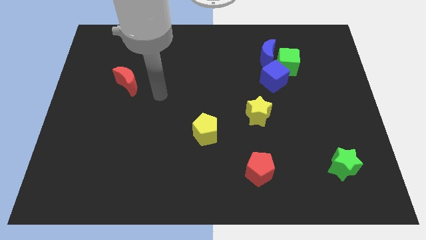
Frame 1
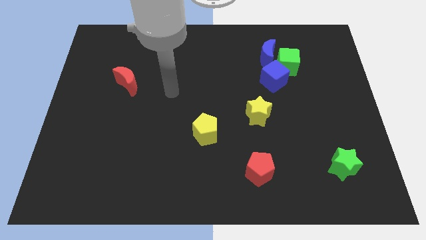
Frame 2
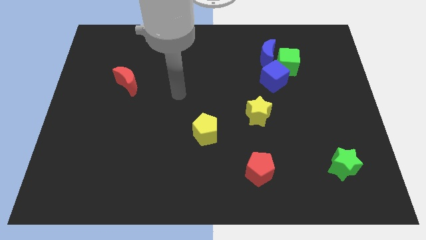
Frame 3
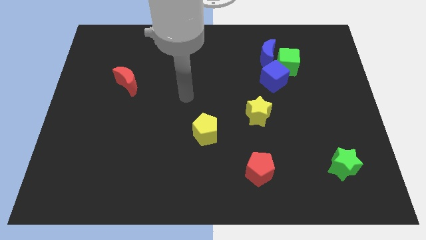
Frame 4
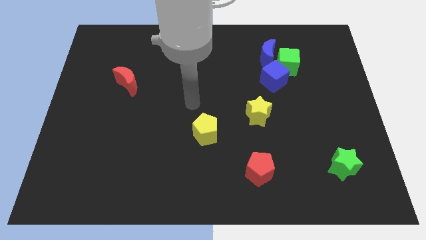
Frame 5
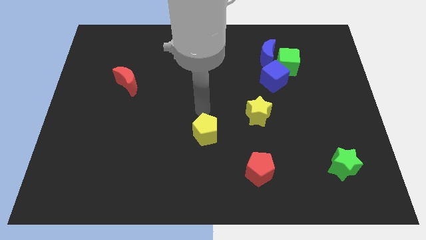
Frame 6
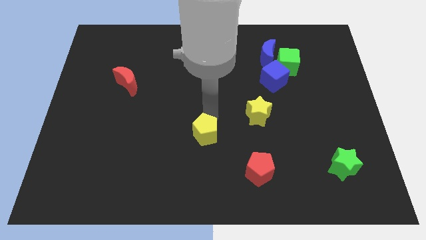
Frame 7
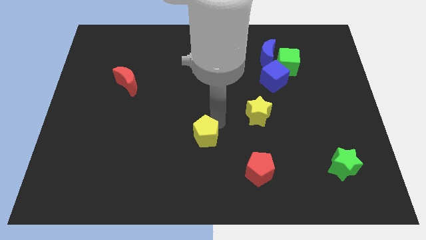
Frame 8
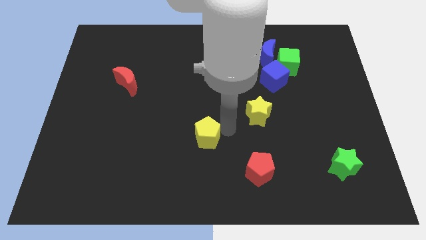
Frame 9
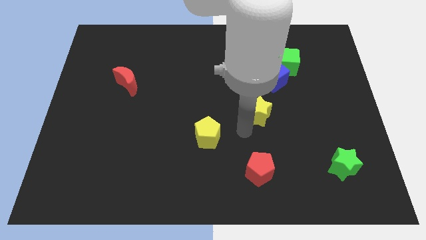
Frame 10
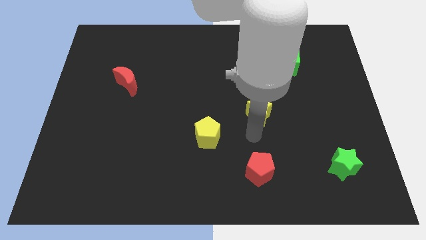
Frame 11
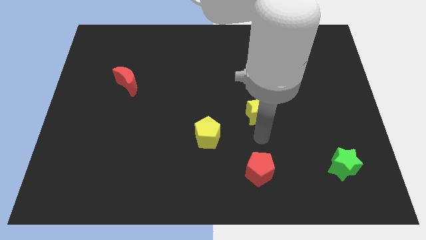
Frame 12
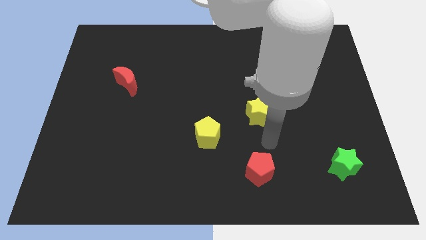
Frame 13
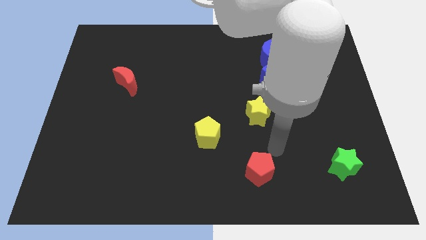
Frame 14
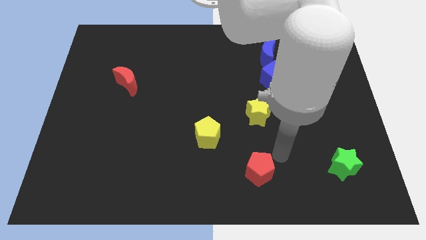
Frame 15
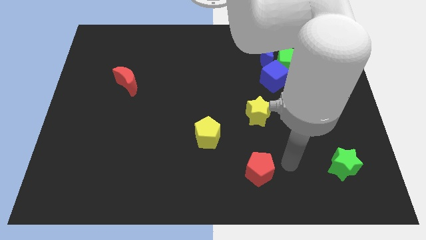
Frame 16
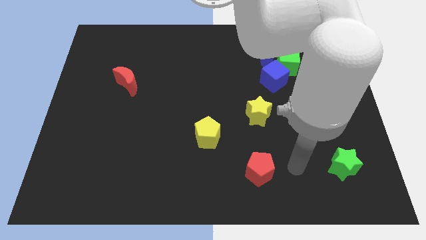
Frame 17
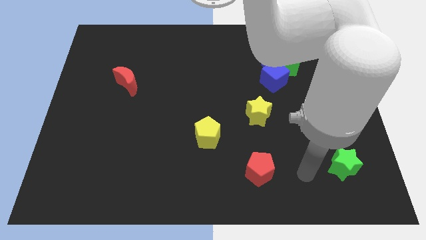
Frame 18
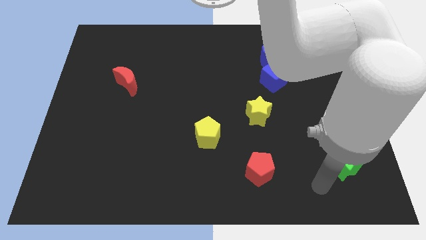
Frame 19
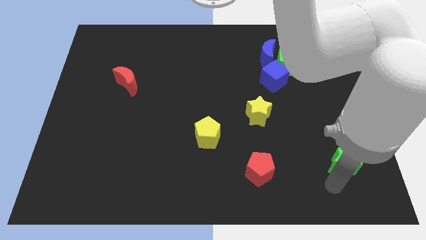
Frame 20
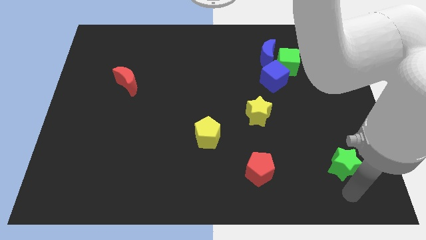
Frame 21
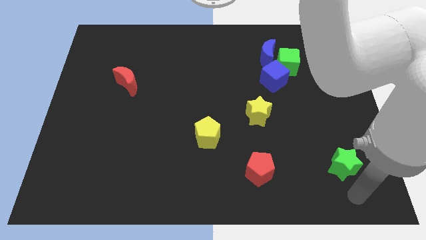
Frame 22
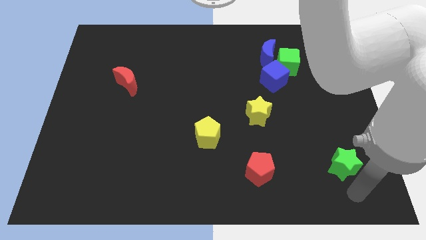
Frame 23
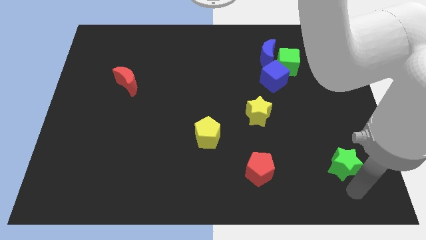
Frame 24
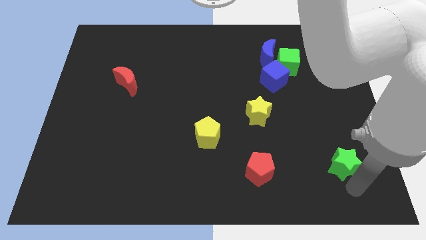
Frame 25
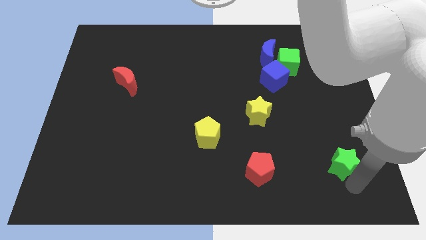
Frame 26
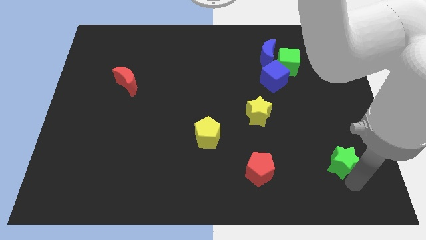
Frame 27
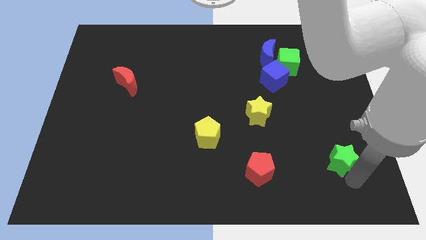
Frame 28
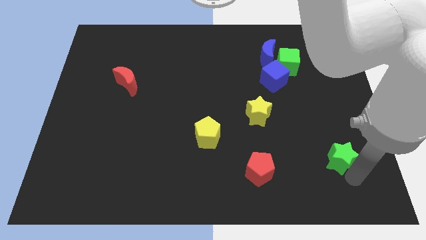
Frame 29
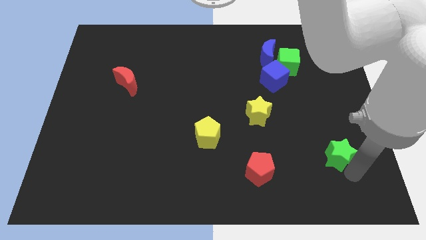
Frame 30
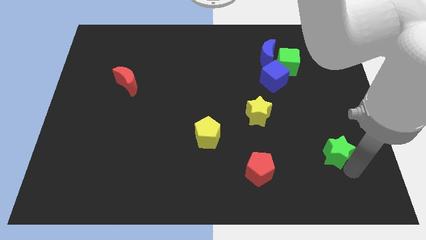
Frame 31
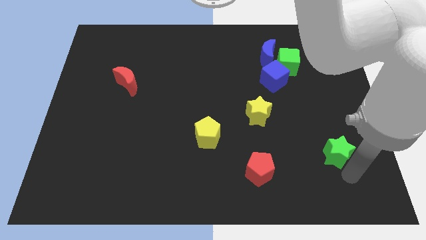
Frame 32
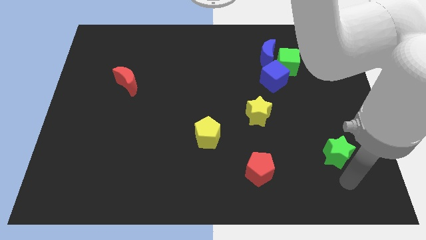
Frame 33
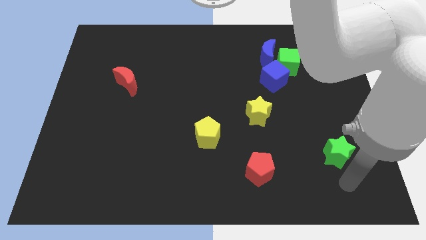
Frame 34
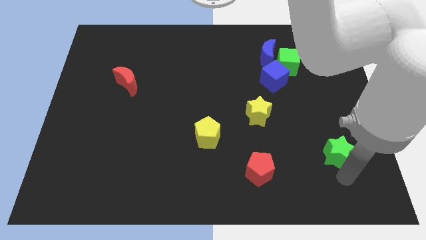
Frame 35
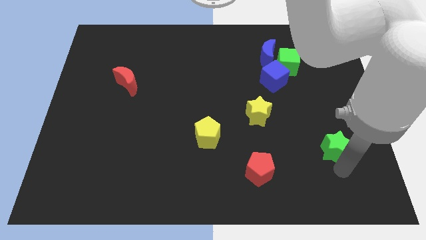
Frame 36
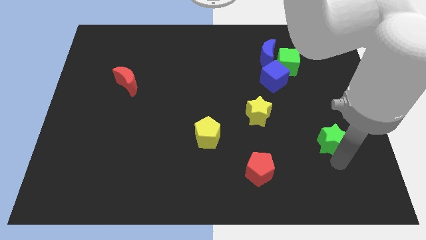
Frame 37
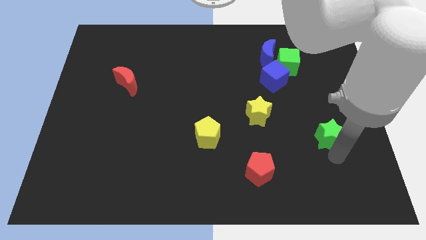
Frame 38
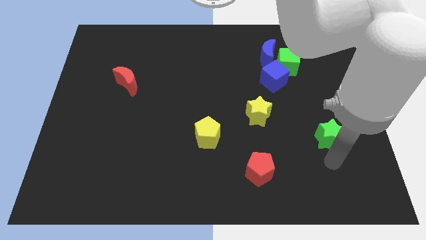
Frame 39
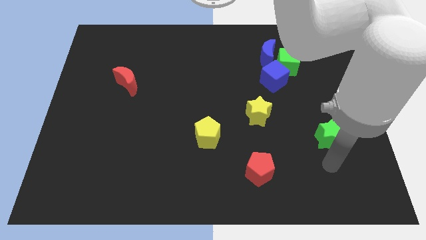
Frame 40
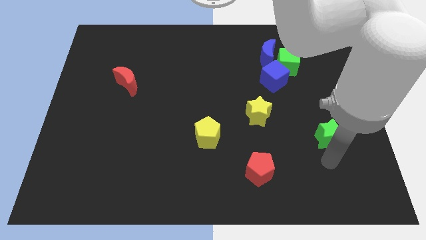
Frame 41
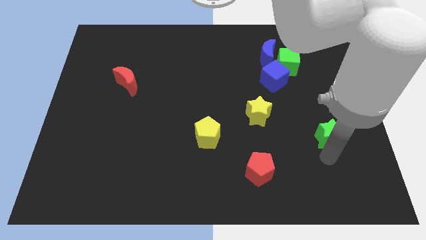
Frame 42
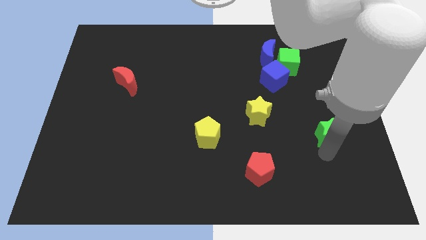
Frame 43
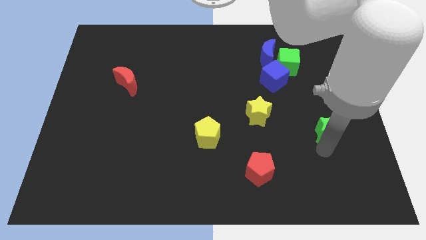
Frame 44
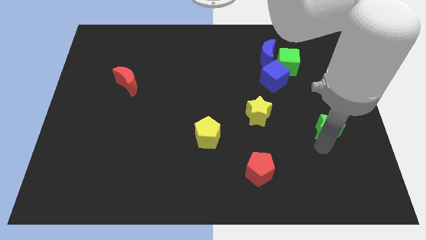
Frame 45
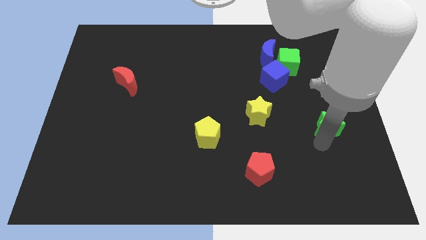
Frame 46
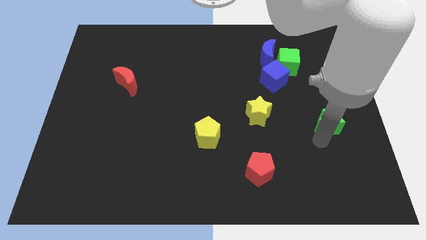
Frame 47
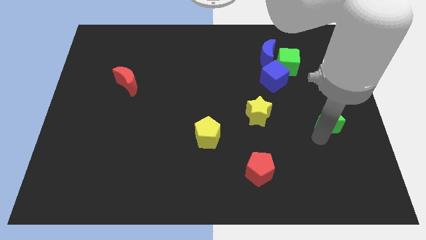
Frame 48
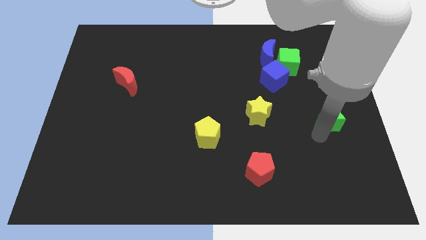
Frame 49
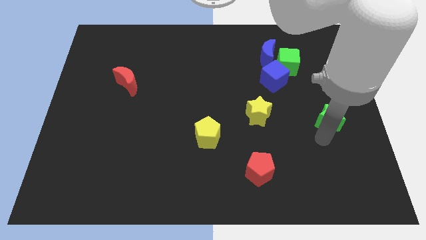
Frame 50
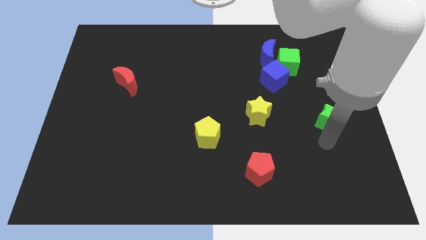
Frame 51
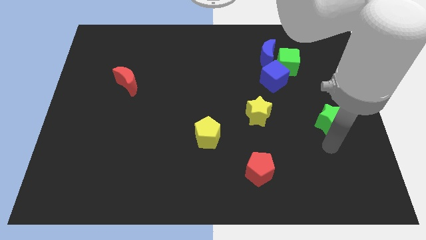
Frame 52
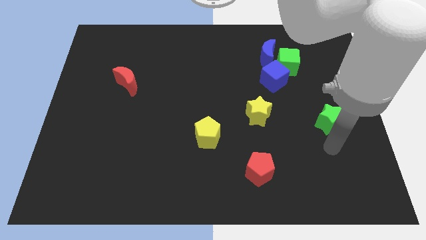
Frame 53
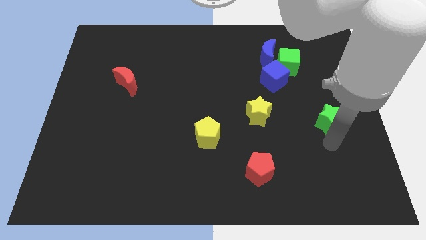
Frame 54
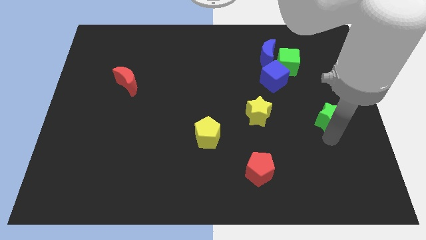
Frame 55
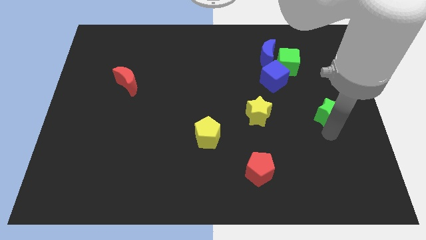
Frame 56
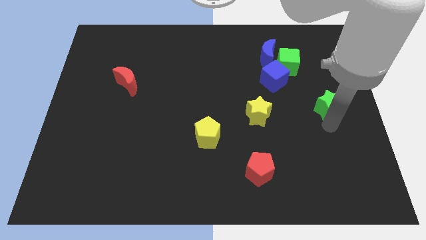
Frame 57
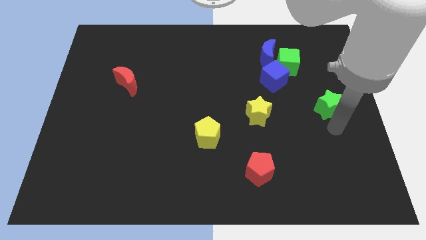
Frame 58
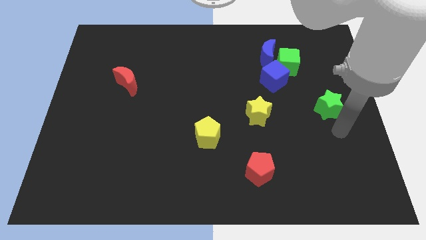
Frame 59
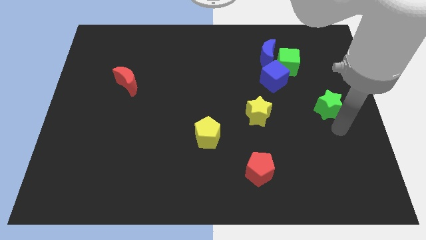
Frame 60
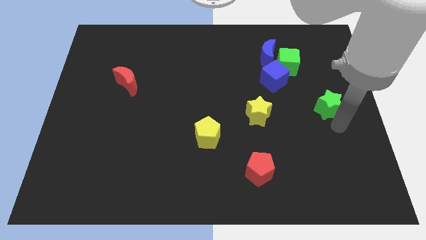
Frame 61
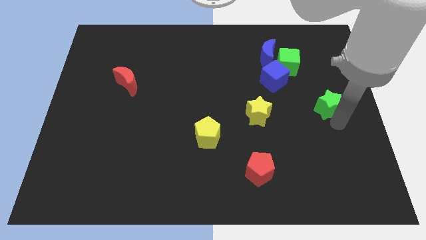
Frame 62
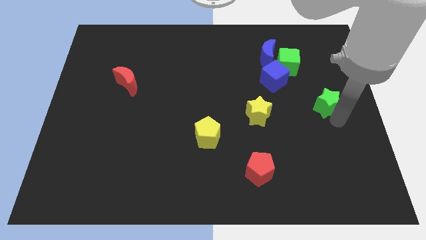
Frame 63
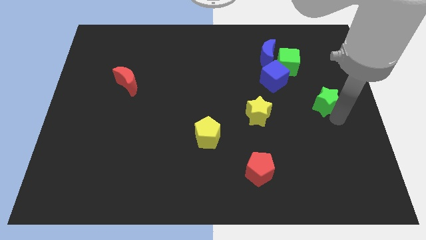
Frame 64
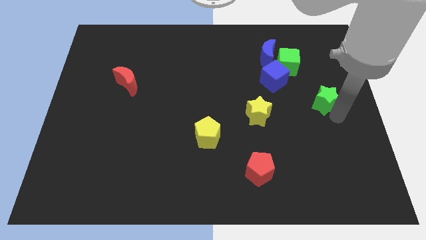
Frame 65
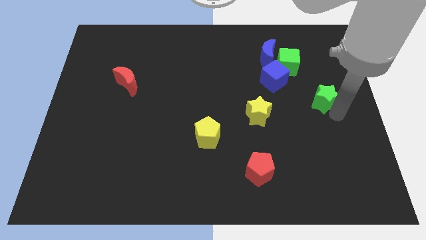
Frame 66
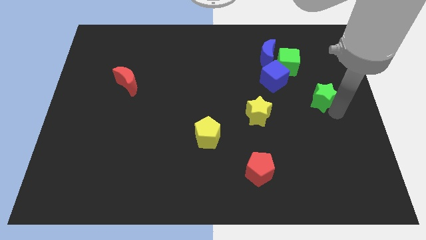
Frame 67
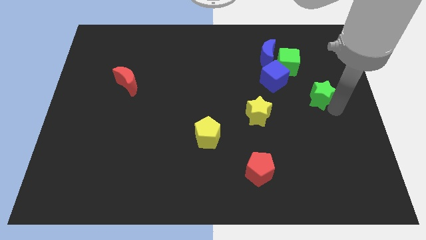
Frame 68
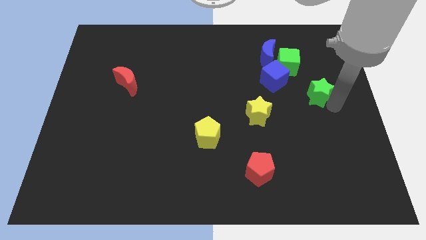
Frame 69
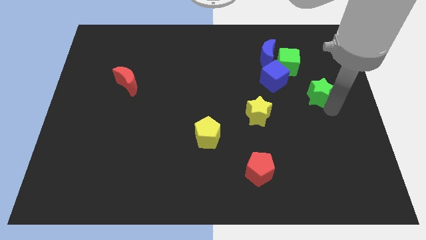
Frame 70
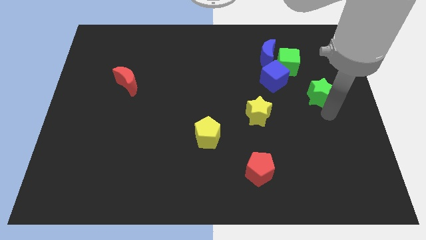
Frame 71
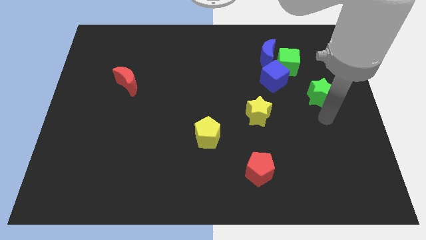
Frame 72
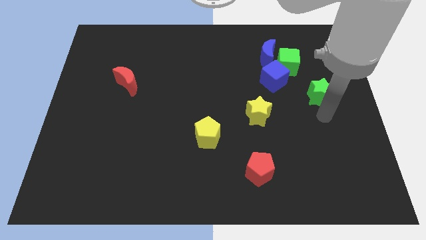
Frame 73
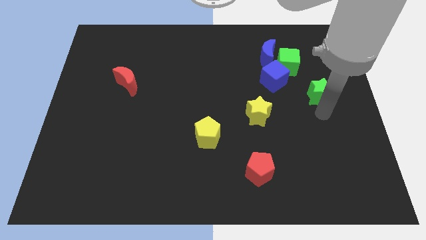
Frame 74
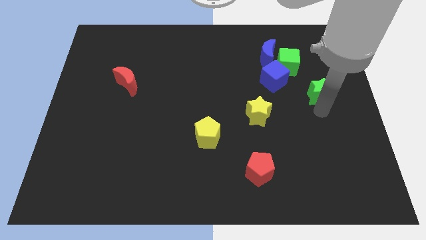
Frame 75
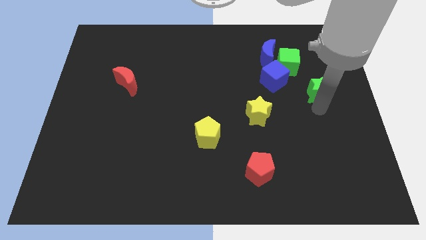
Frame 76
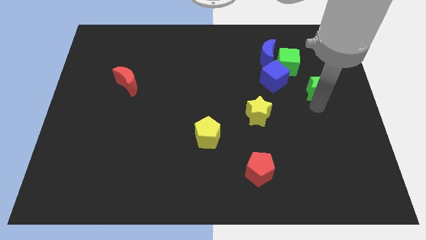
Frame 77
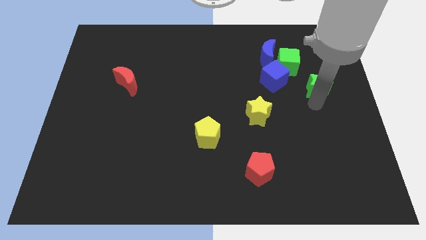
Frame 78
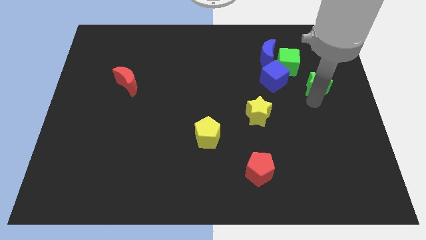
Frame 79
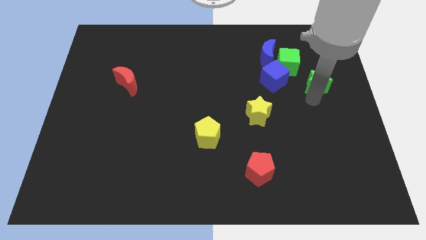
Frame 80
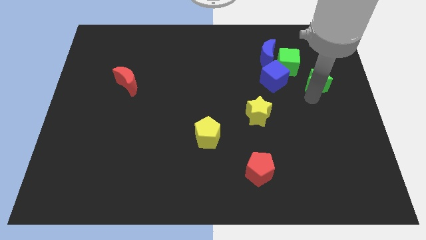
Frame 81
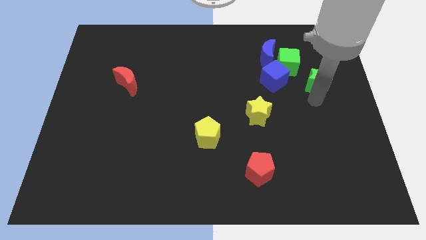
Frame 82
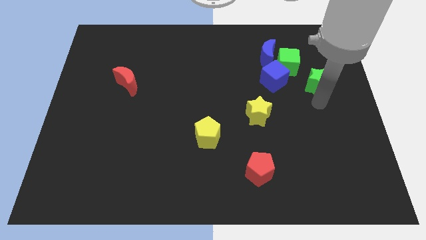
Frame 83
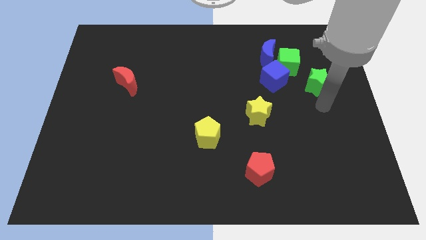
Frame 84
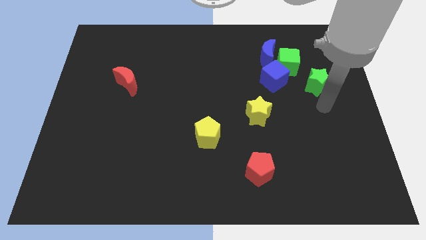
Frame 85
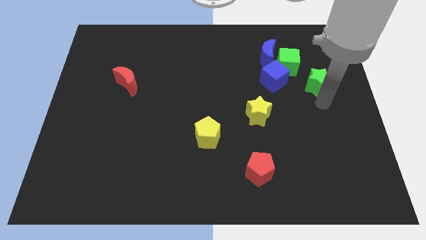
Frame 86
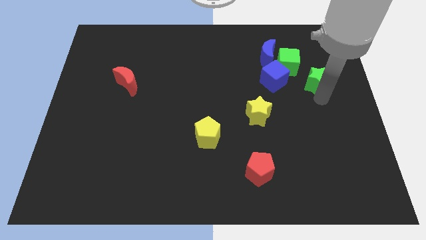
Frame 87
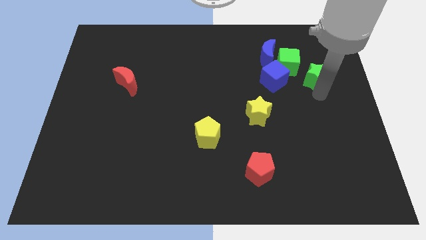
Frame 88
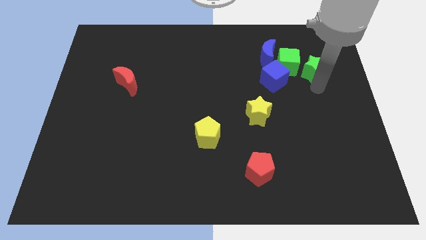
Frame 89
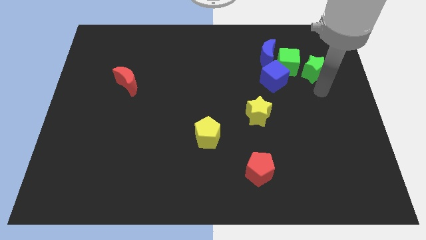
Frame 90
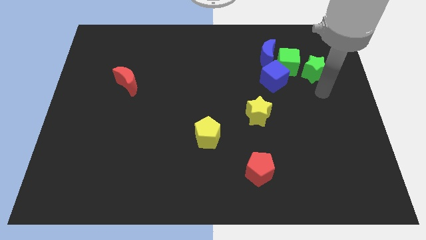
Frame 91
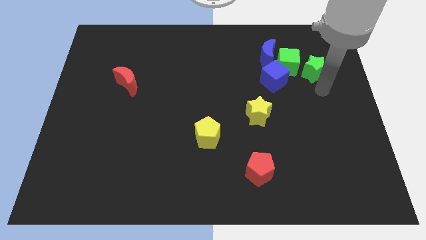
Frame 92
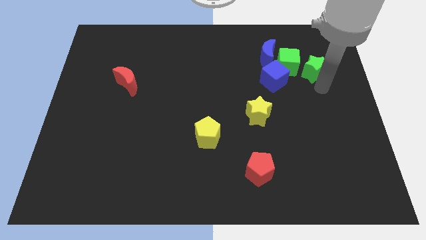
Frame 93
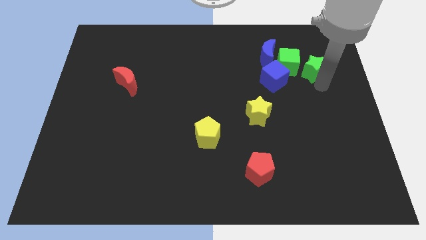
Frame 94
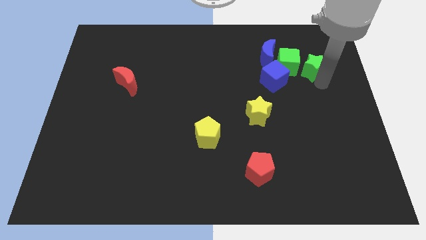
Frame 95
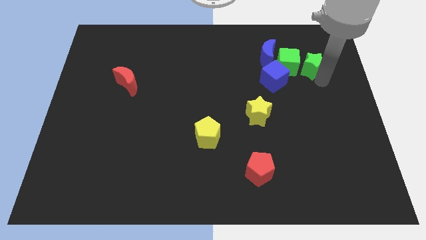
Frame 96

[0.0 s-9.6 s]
push the green star to the right side of the blue moon
